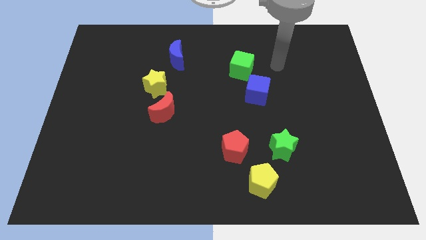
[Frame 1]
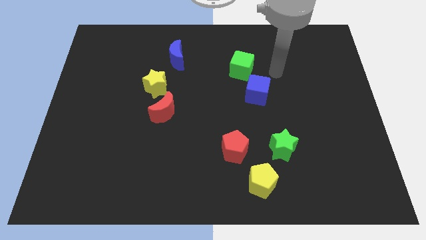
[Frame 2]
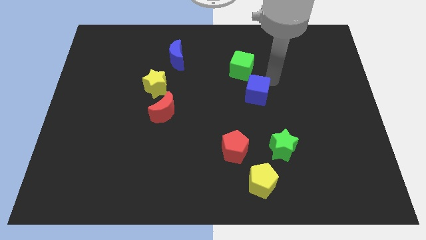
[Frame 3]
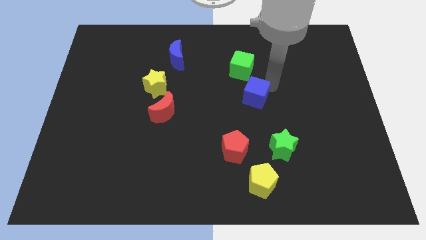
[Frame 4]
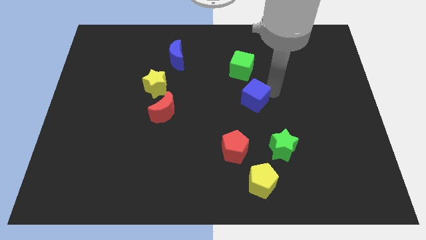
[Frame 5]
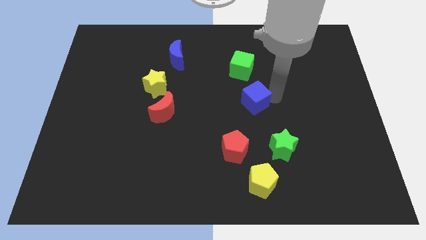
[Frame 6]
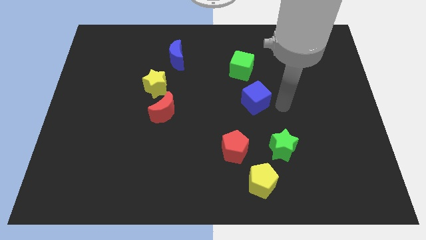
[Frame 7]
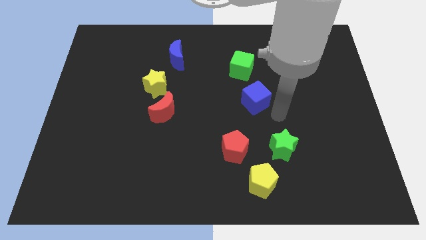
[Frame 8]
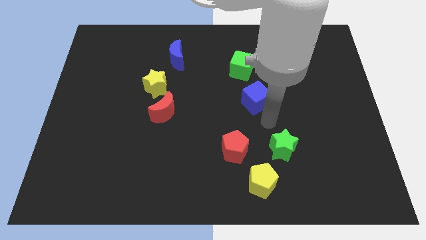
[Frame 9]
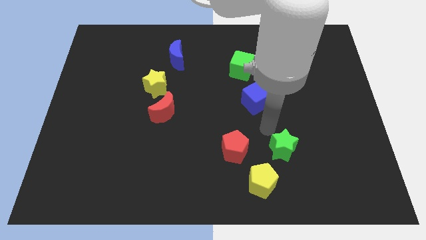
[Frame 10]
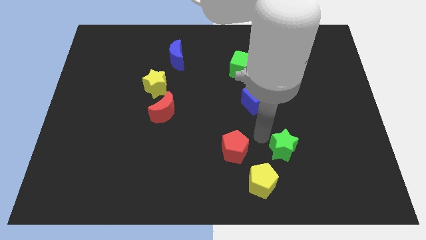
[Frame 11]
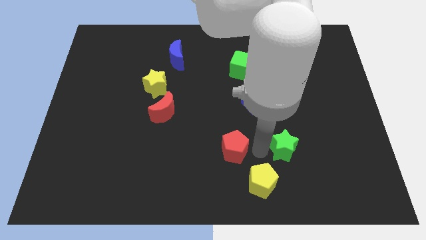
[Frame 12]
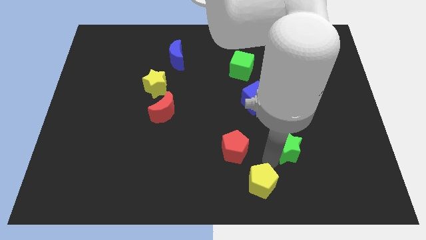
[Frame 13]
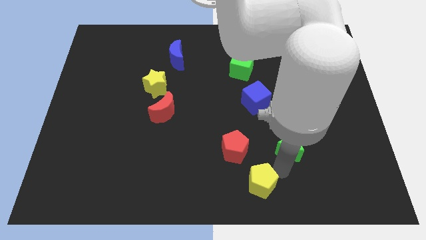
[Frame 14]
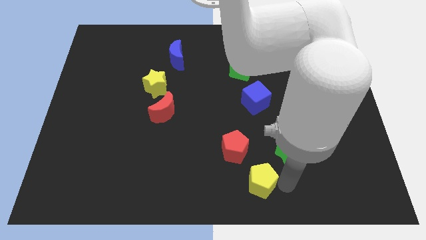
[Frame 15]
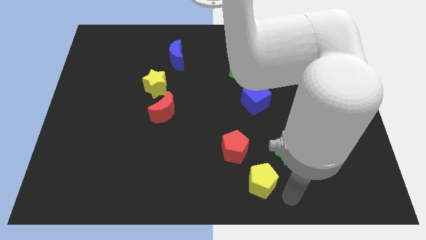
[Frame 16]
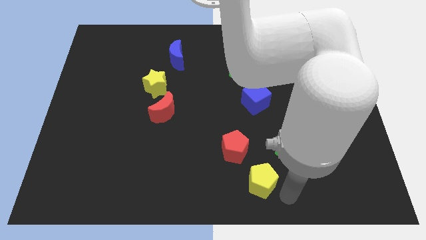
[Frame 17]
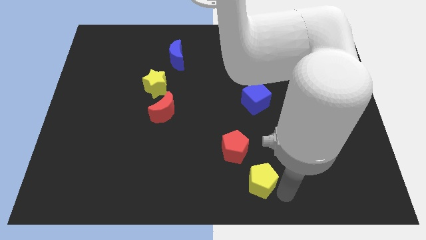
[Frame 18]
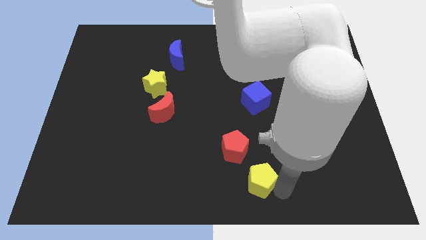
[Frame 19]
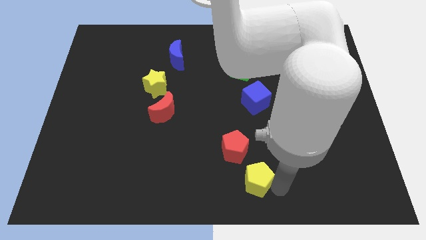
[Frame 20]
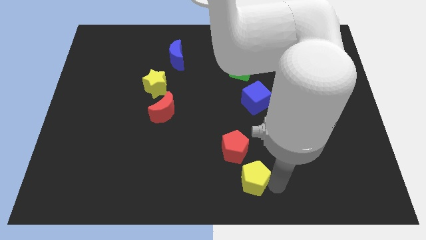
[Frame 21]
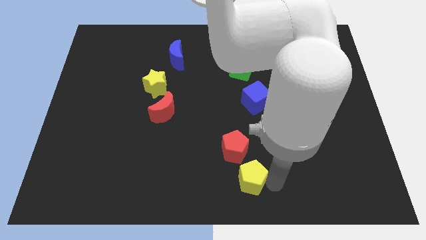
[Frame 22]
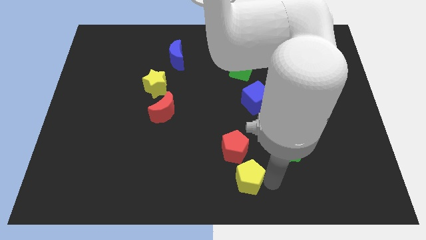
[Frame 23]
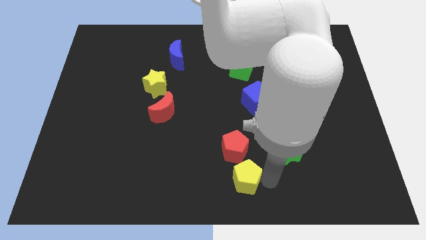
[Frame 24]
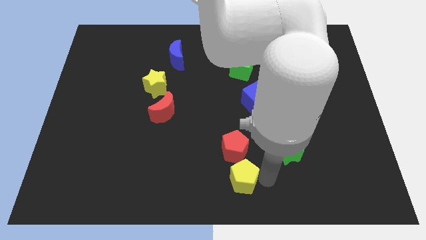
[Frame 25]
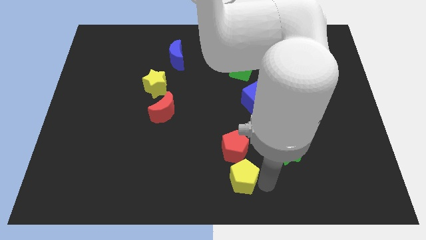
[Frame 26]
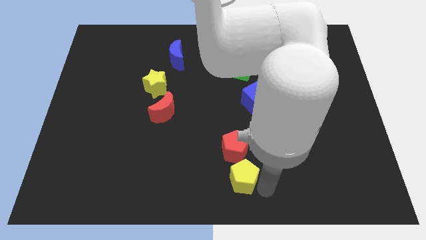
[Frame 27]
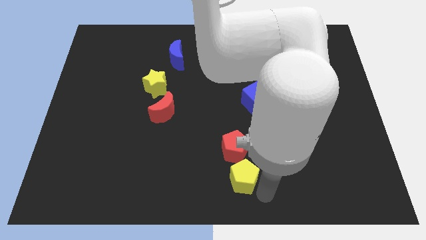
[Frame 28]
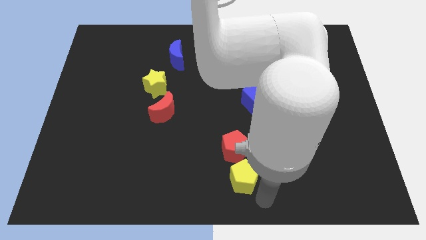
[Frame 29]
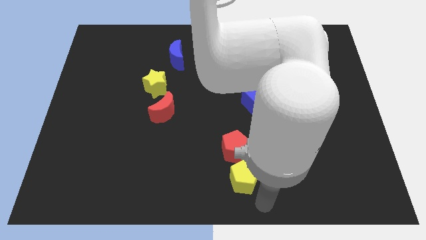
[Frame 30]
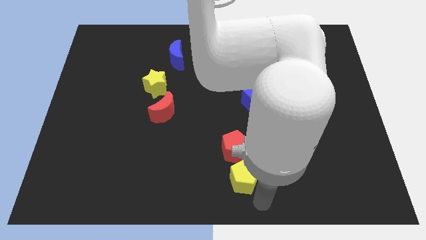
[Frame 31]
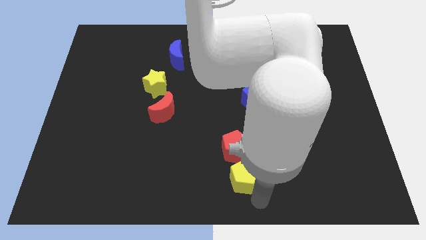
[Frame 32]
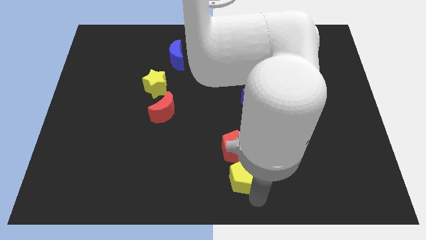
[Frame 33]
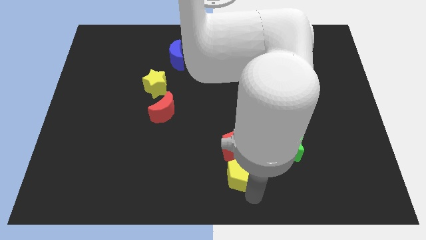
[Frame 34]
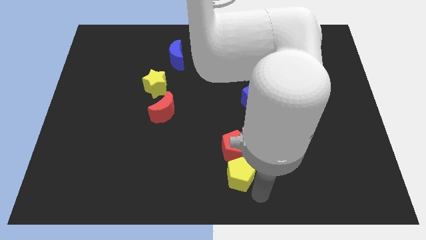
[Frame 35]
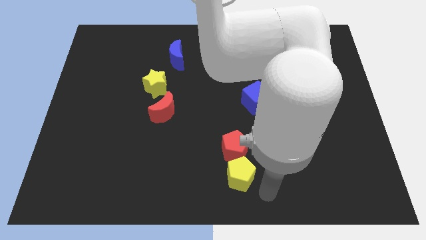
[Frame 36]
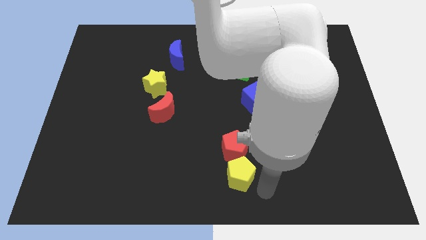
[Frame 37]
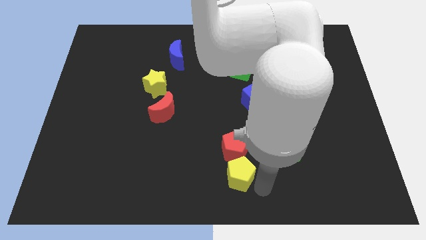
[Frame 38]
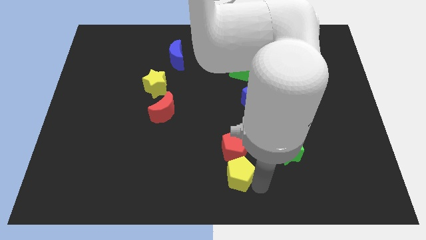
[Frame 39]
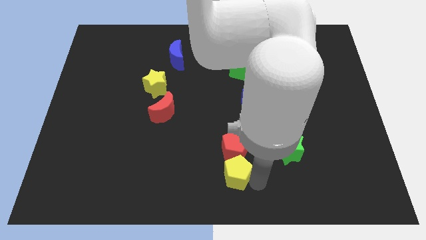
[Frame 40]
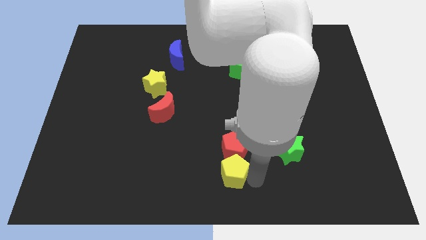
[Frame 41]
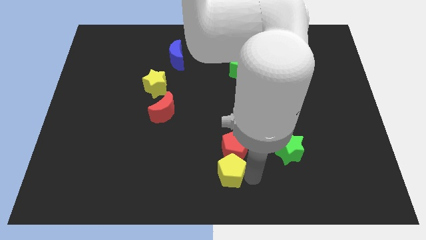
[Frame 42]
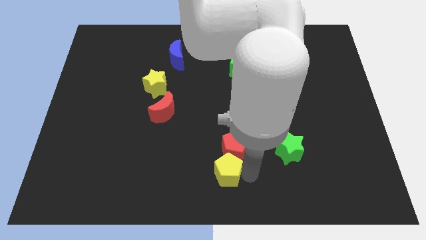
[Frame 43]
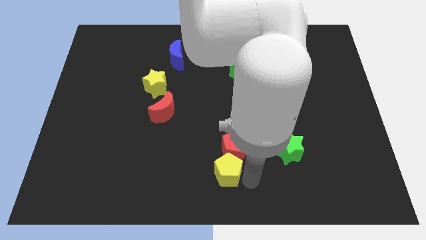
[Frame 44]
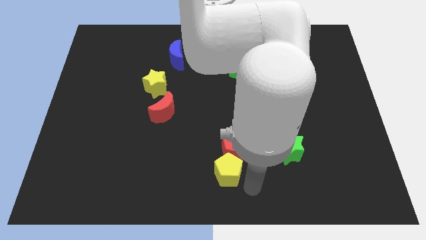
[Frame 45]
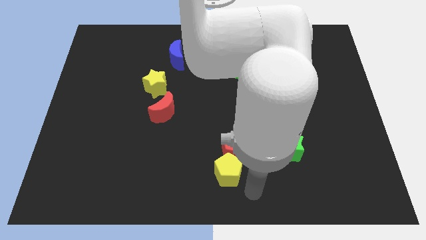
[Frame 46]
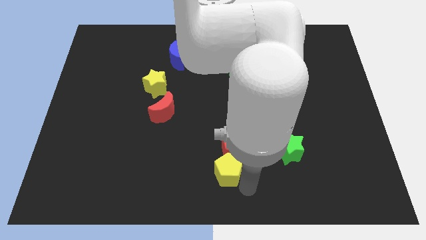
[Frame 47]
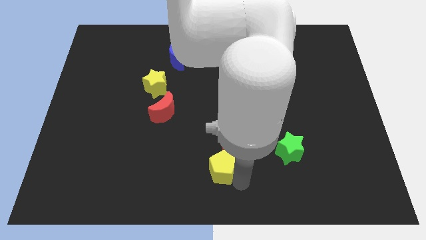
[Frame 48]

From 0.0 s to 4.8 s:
slightly slide the yellow pentagon diagonally upwards and left

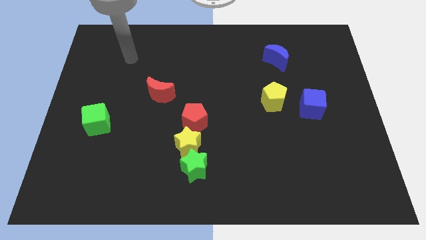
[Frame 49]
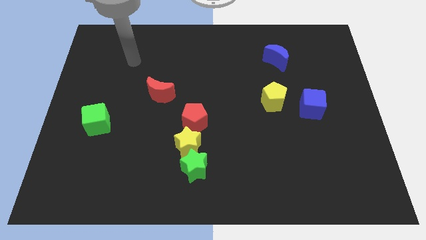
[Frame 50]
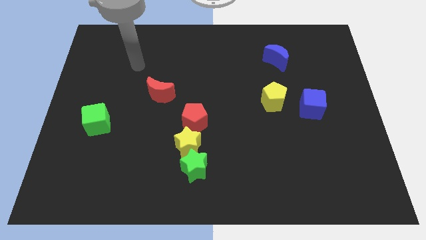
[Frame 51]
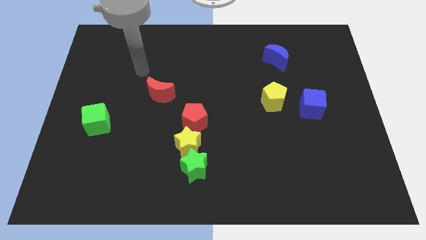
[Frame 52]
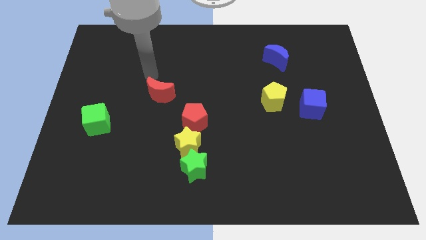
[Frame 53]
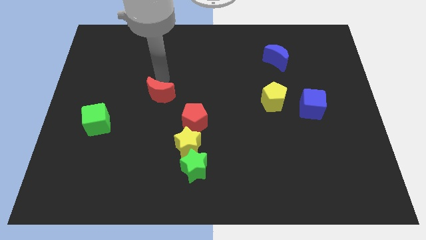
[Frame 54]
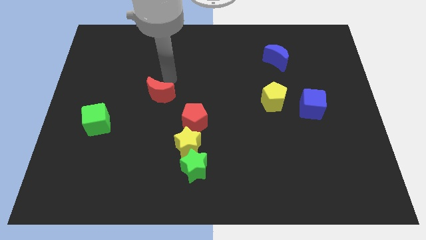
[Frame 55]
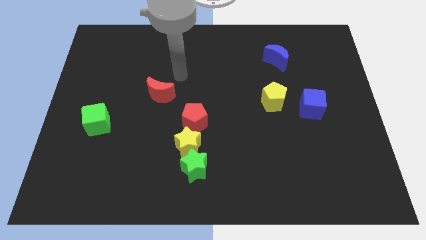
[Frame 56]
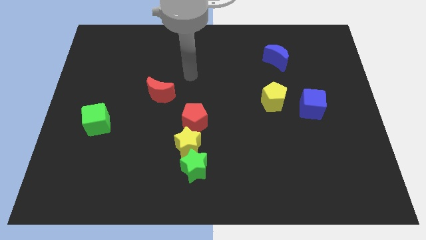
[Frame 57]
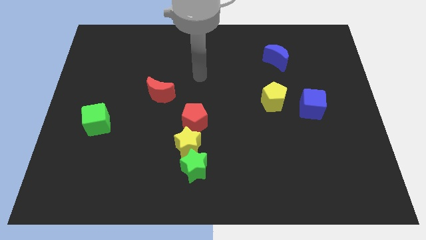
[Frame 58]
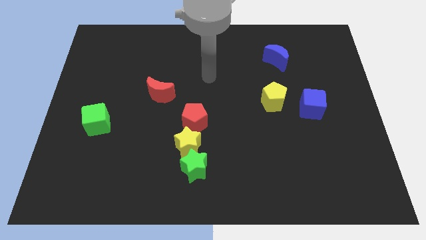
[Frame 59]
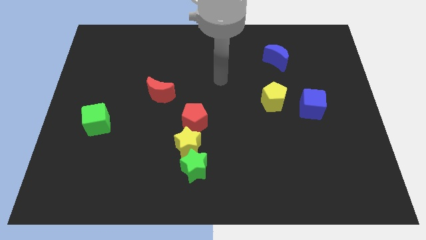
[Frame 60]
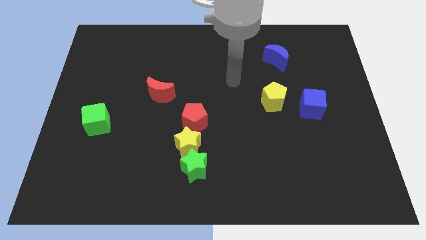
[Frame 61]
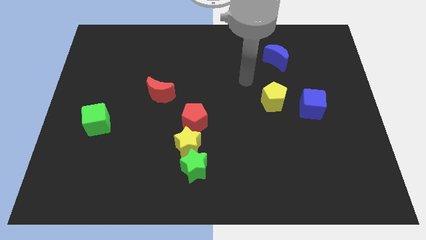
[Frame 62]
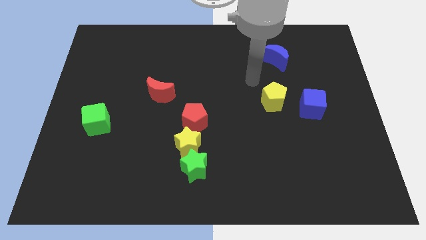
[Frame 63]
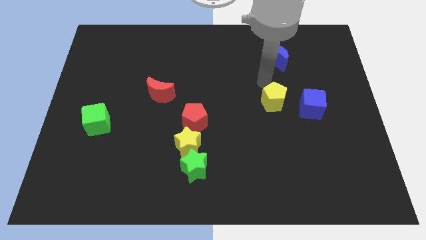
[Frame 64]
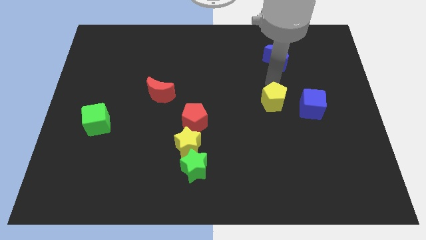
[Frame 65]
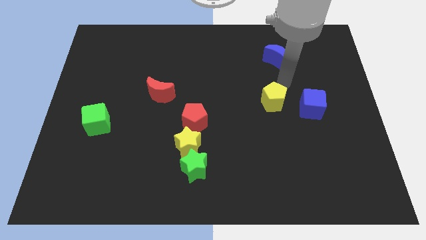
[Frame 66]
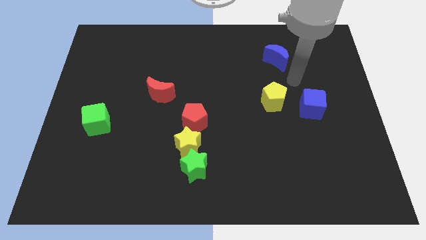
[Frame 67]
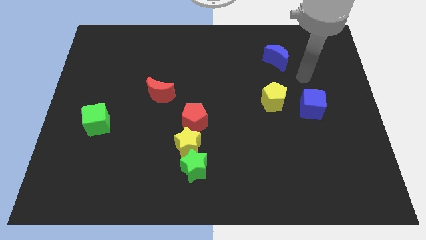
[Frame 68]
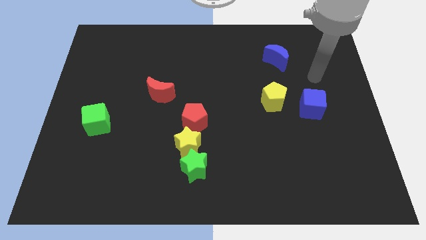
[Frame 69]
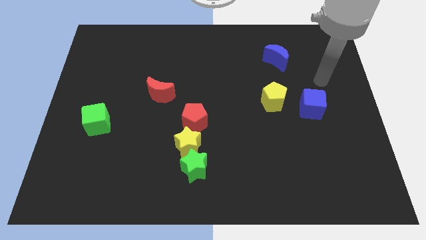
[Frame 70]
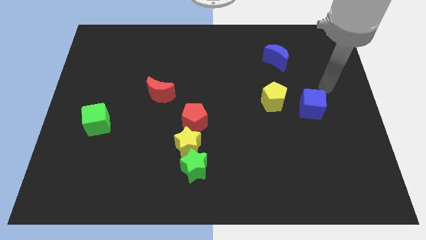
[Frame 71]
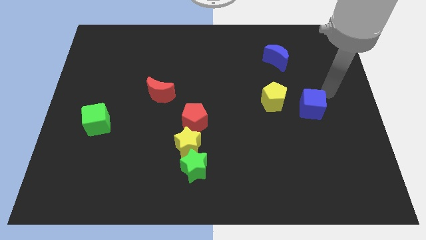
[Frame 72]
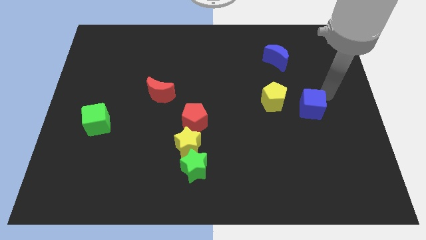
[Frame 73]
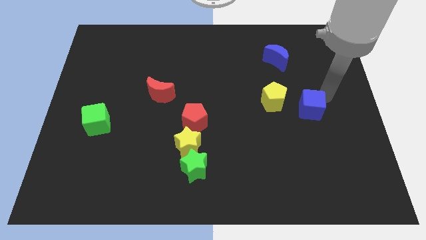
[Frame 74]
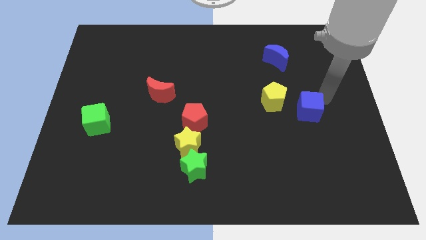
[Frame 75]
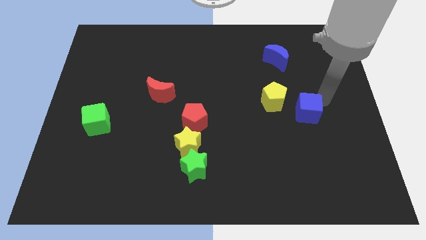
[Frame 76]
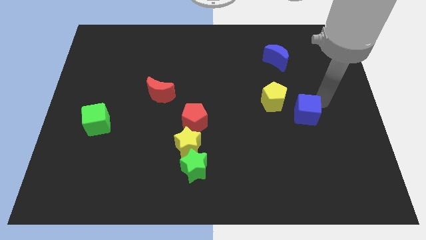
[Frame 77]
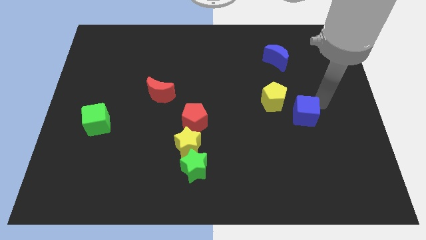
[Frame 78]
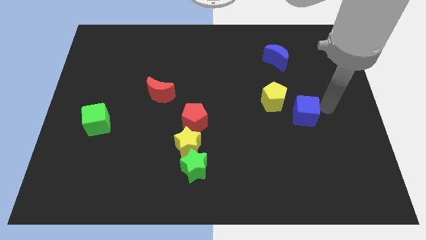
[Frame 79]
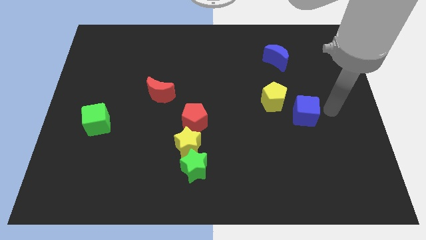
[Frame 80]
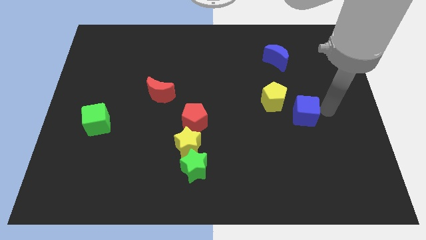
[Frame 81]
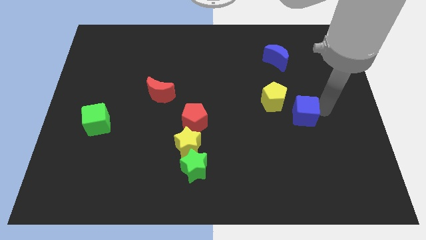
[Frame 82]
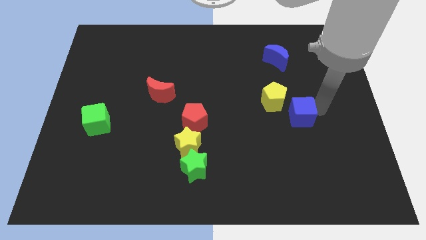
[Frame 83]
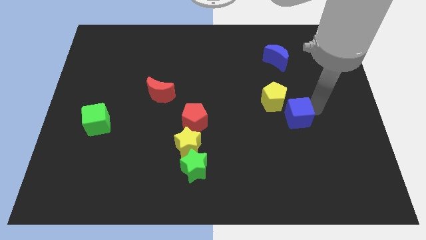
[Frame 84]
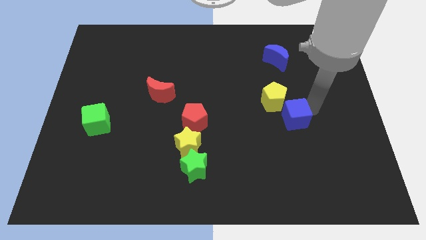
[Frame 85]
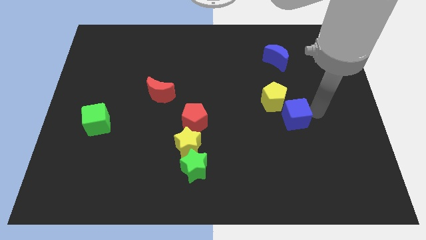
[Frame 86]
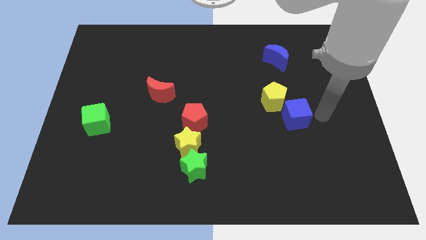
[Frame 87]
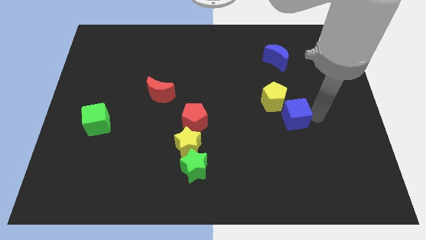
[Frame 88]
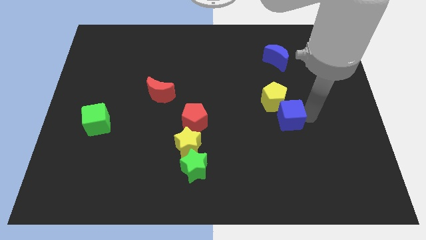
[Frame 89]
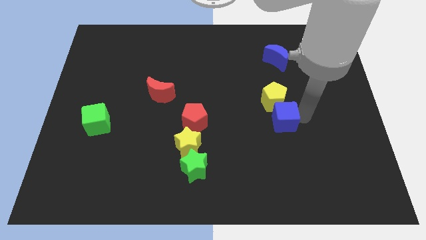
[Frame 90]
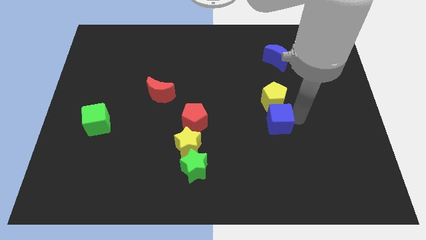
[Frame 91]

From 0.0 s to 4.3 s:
move the blue cube left slightly
